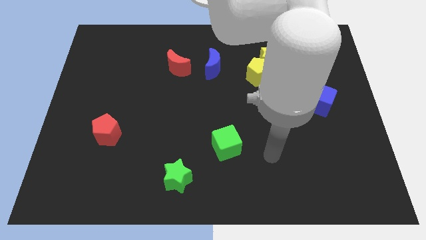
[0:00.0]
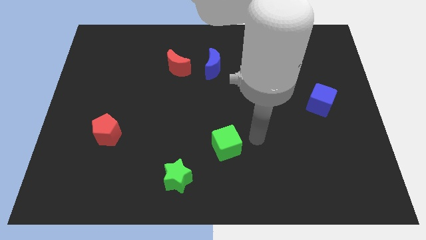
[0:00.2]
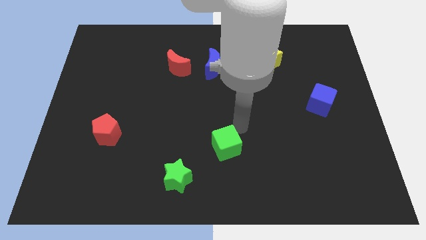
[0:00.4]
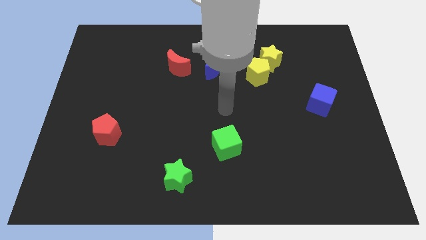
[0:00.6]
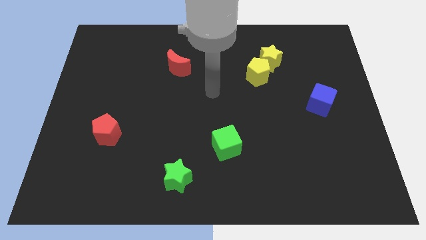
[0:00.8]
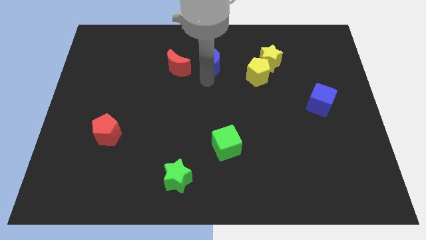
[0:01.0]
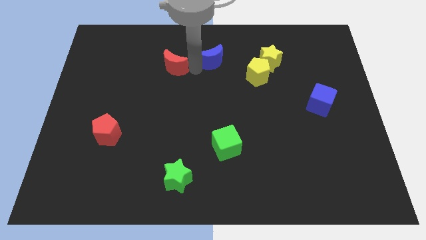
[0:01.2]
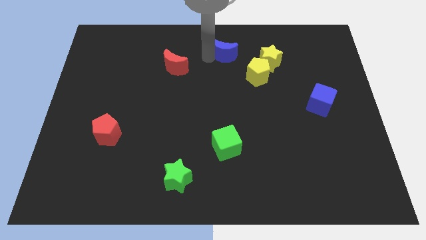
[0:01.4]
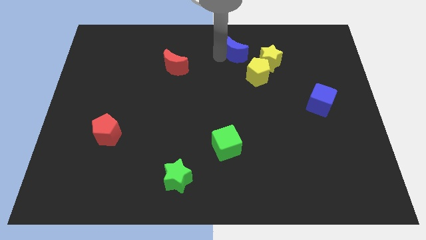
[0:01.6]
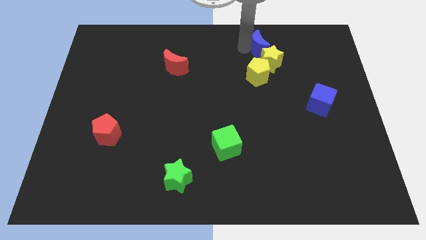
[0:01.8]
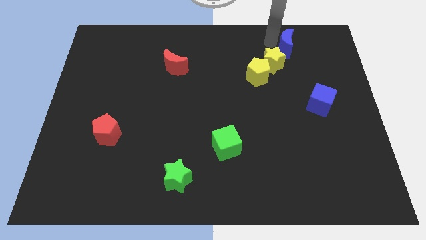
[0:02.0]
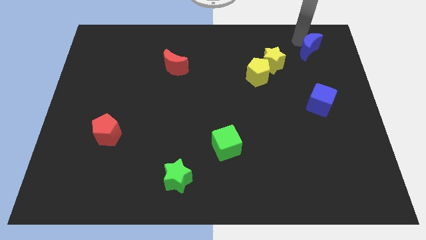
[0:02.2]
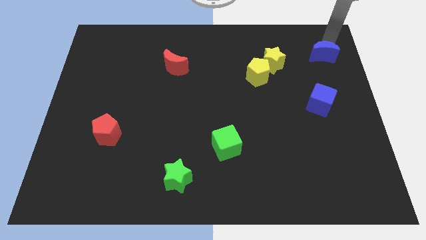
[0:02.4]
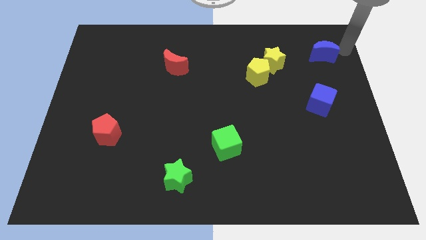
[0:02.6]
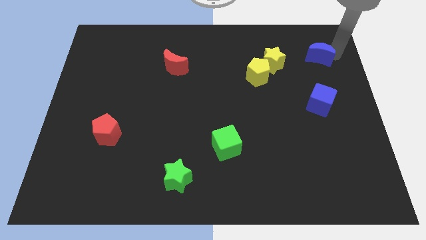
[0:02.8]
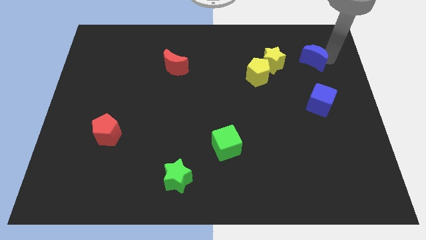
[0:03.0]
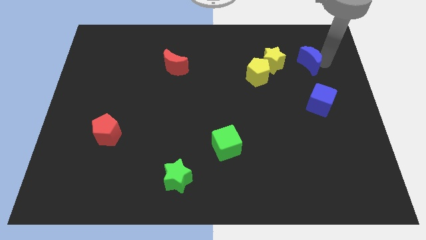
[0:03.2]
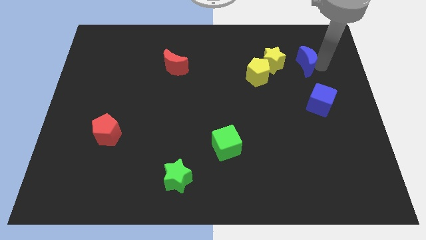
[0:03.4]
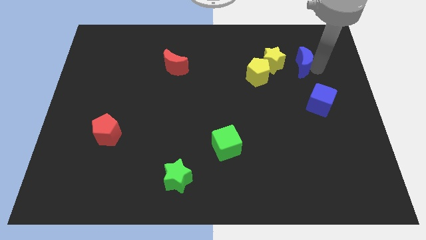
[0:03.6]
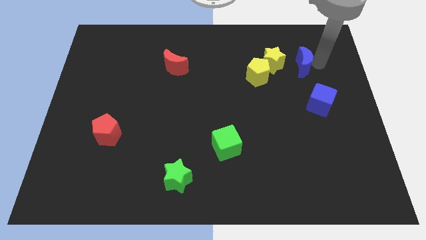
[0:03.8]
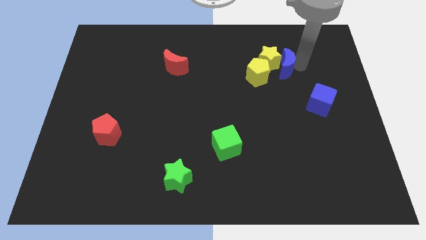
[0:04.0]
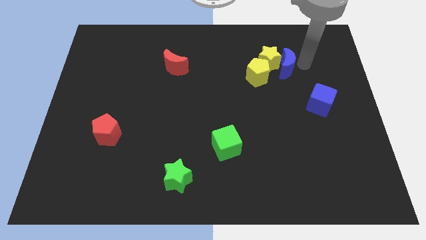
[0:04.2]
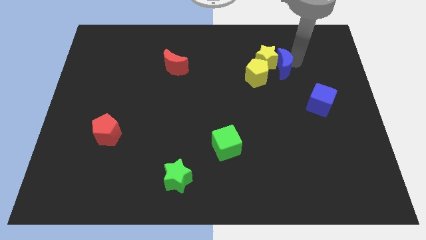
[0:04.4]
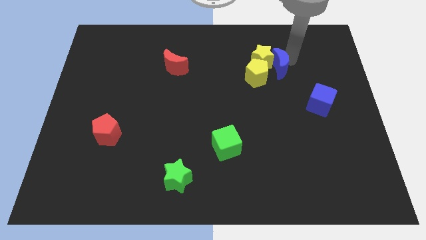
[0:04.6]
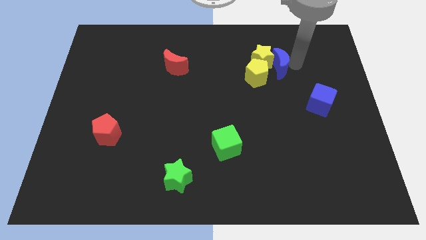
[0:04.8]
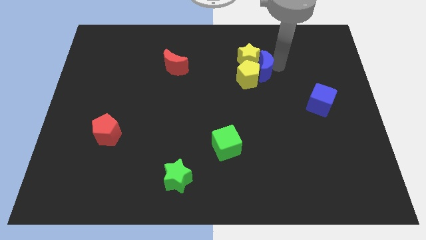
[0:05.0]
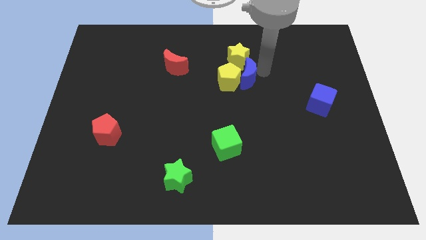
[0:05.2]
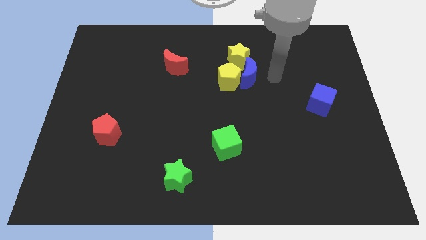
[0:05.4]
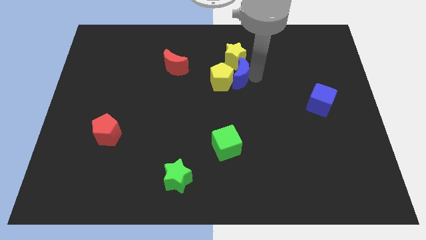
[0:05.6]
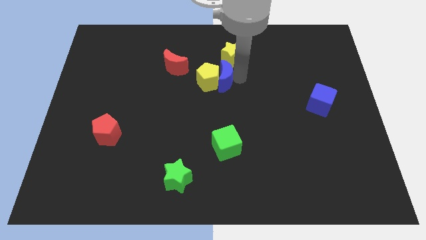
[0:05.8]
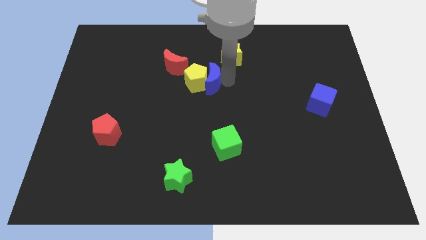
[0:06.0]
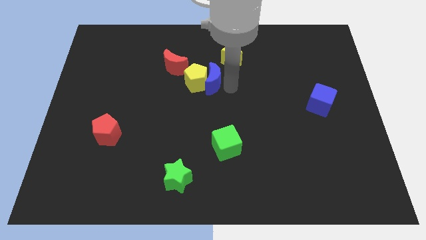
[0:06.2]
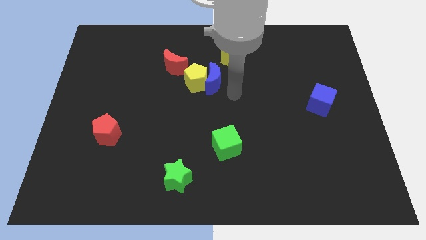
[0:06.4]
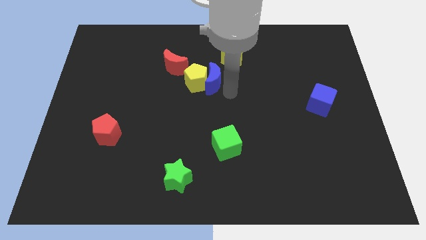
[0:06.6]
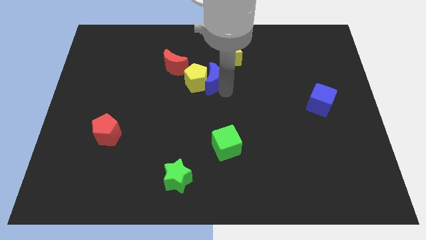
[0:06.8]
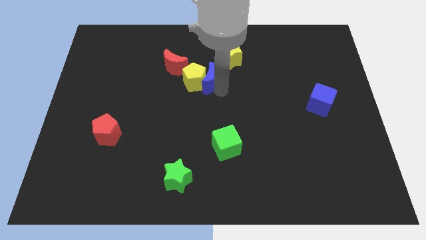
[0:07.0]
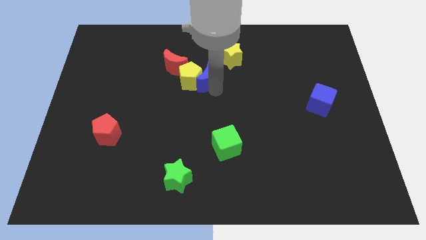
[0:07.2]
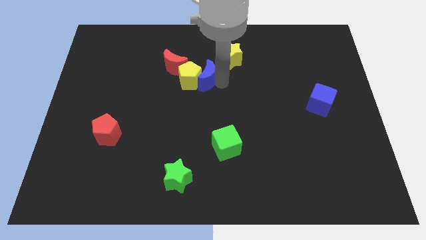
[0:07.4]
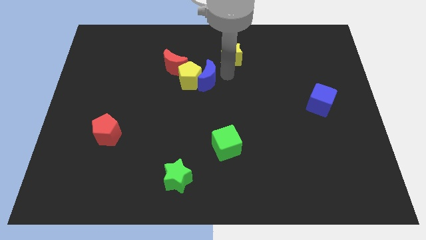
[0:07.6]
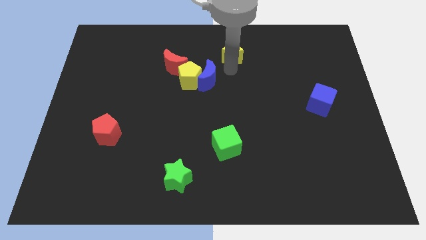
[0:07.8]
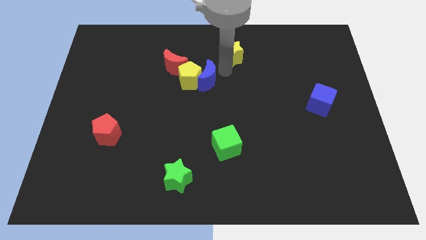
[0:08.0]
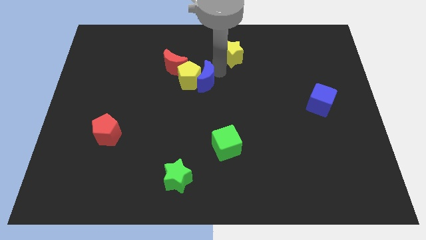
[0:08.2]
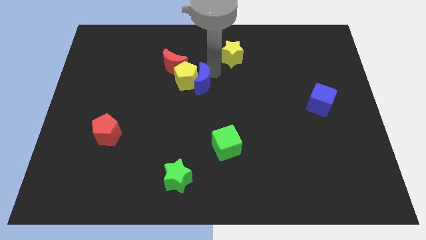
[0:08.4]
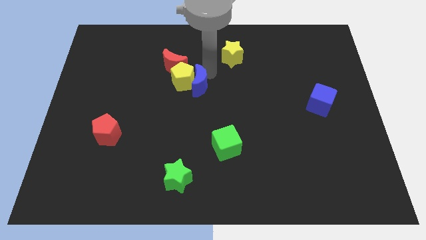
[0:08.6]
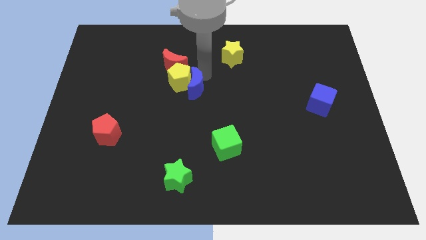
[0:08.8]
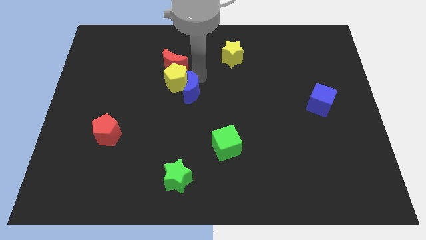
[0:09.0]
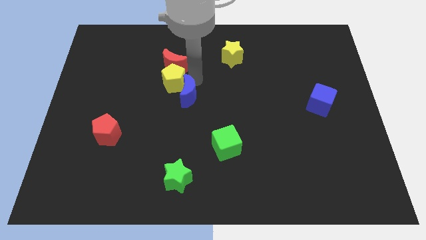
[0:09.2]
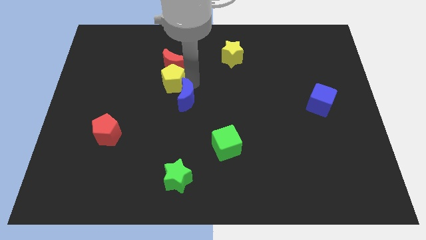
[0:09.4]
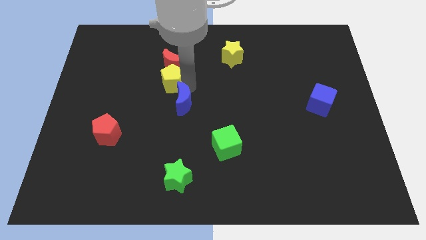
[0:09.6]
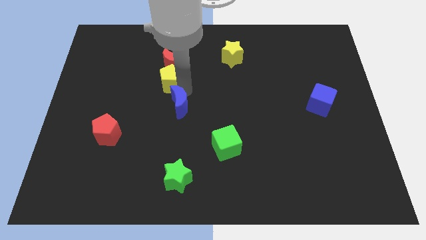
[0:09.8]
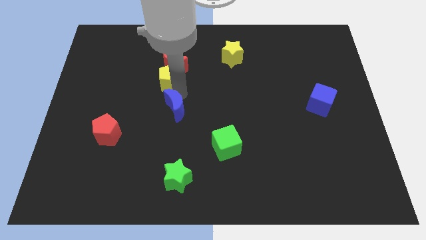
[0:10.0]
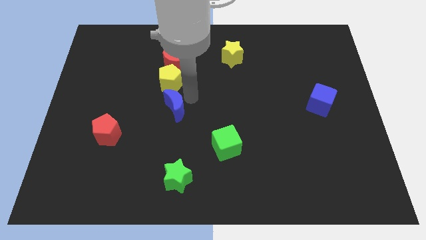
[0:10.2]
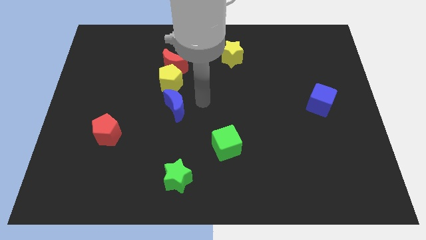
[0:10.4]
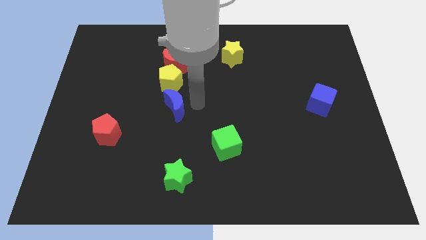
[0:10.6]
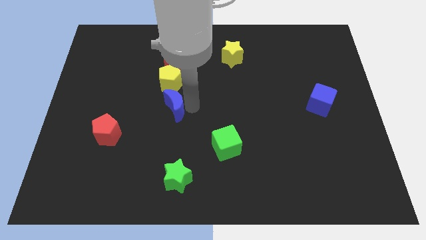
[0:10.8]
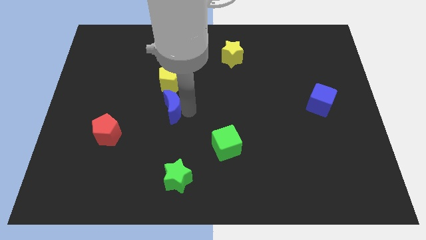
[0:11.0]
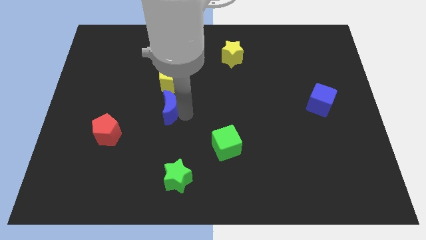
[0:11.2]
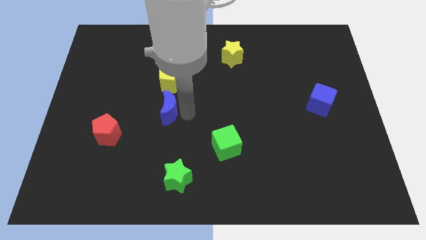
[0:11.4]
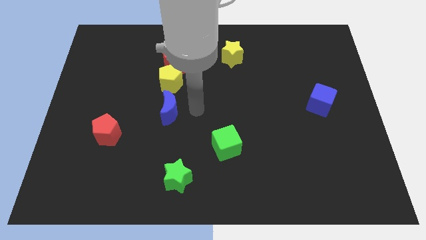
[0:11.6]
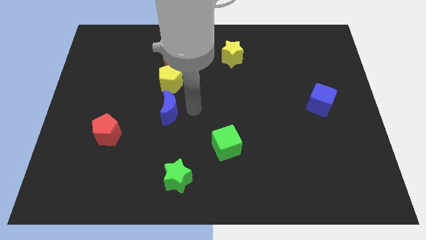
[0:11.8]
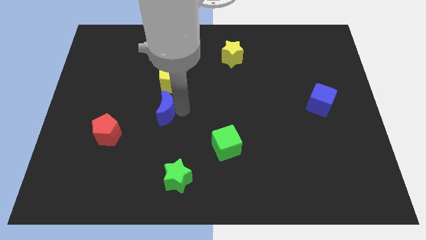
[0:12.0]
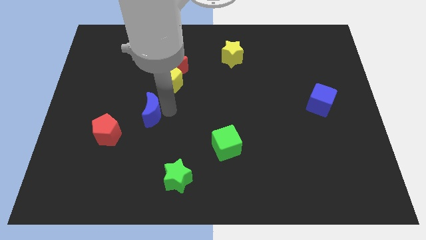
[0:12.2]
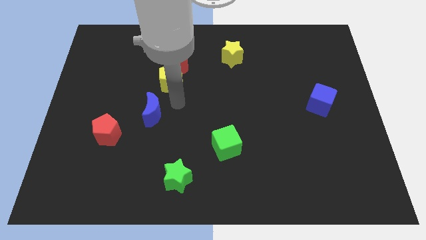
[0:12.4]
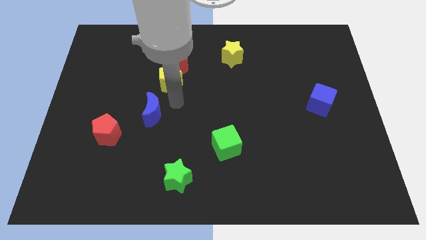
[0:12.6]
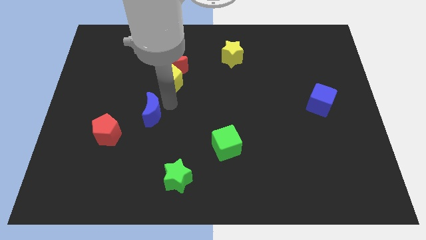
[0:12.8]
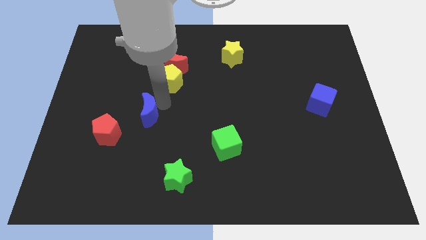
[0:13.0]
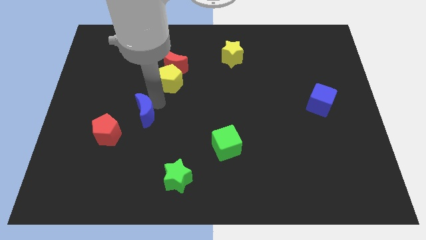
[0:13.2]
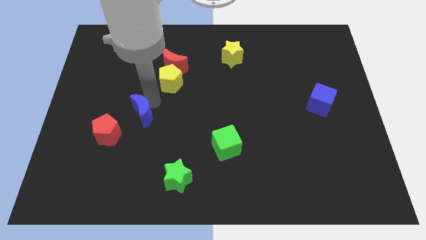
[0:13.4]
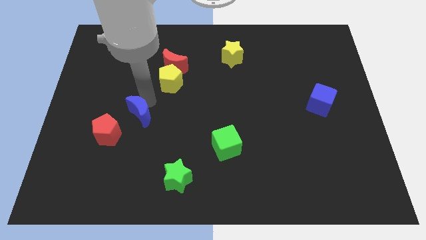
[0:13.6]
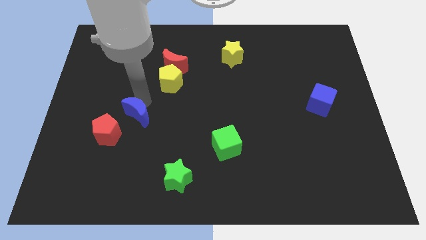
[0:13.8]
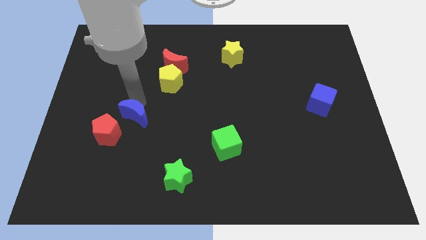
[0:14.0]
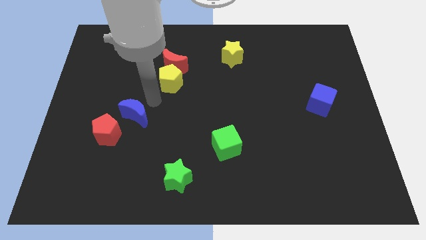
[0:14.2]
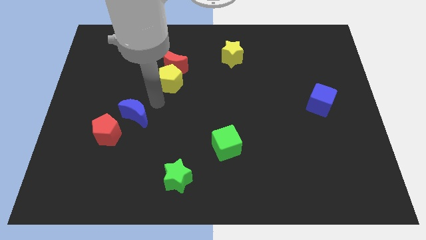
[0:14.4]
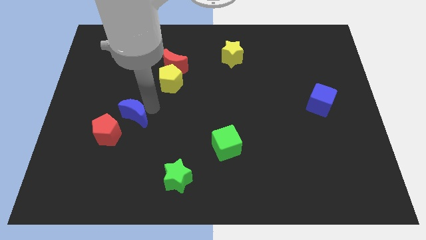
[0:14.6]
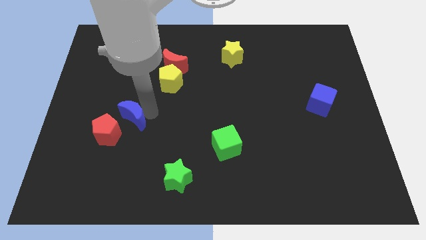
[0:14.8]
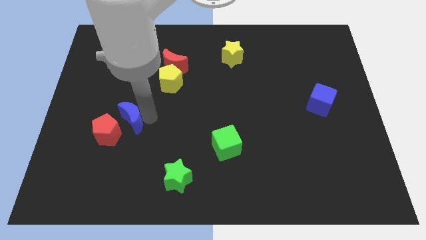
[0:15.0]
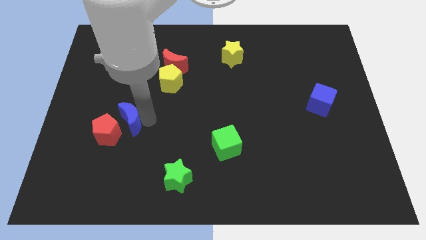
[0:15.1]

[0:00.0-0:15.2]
put the blue moon close to the red pentagon

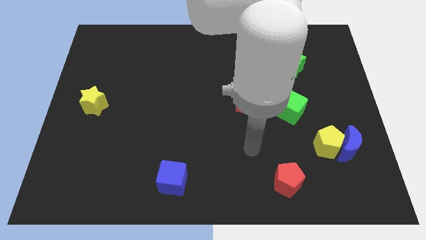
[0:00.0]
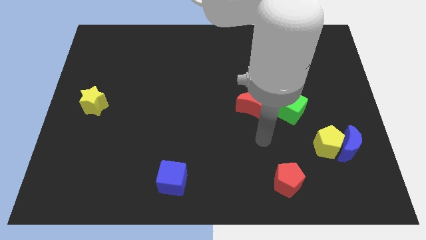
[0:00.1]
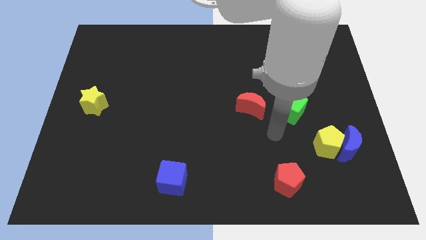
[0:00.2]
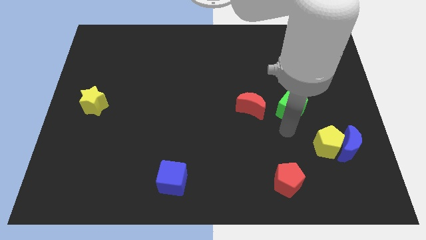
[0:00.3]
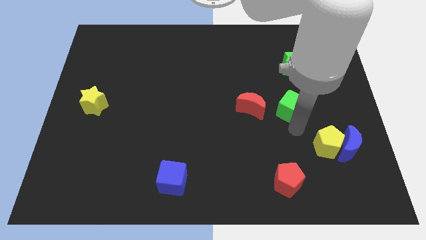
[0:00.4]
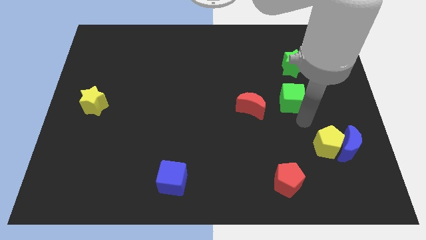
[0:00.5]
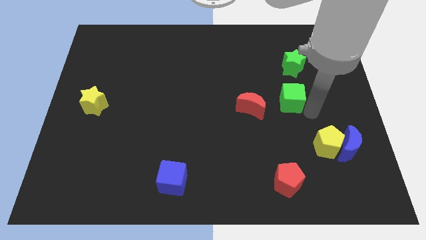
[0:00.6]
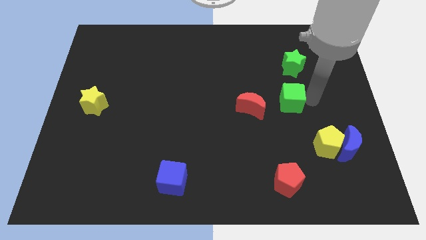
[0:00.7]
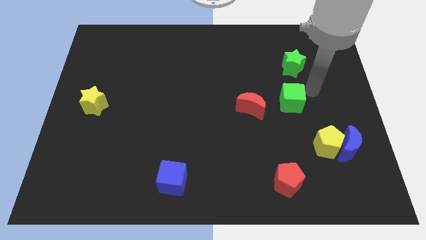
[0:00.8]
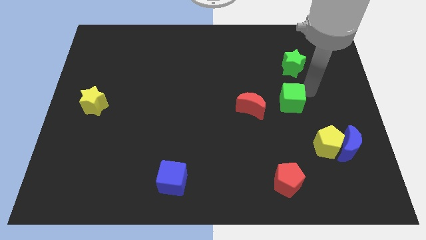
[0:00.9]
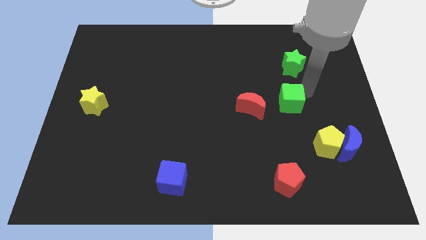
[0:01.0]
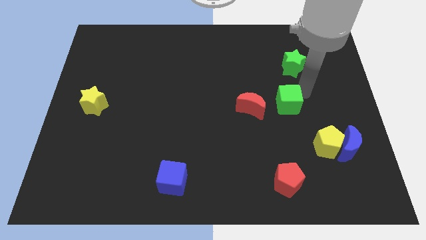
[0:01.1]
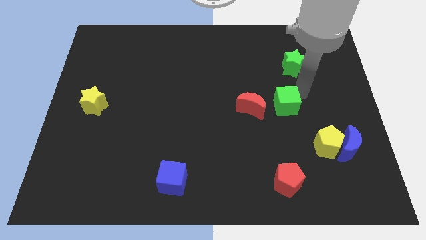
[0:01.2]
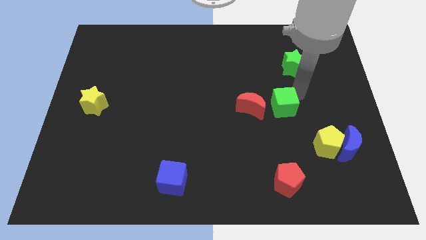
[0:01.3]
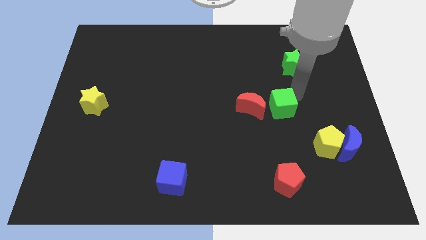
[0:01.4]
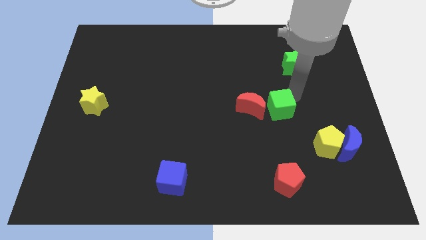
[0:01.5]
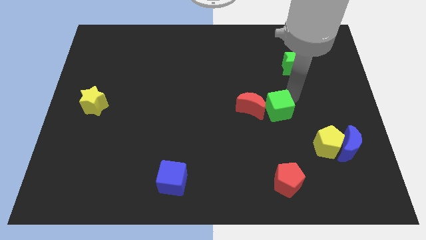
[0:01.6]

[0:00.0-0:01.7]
push the green cube towards the red moon
